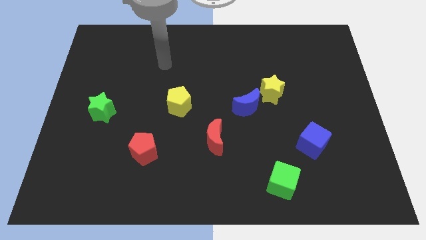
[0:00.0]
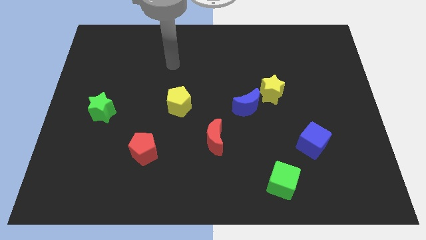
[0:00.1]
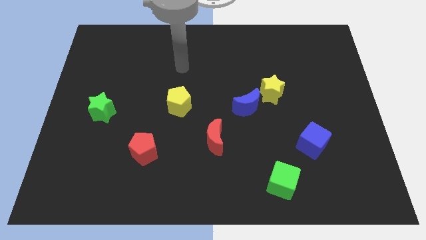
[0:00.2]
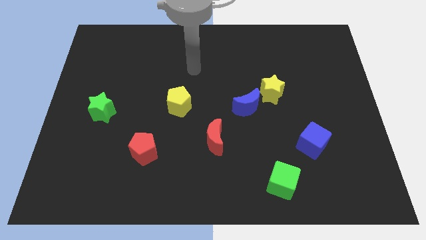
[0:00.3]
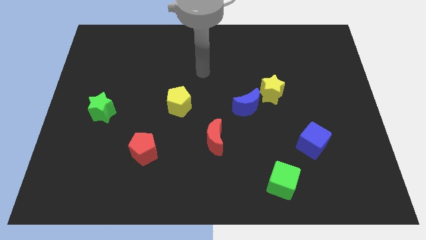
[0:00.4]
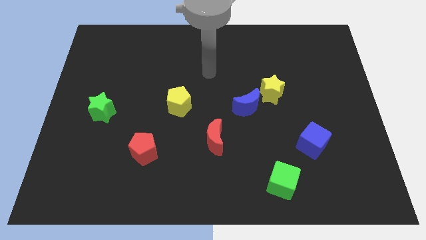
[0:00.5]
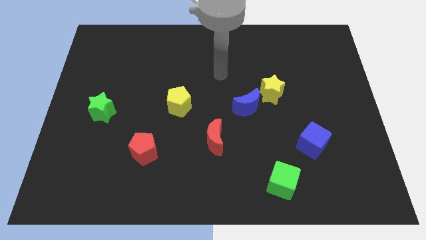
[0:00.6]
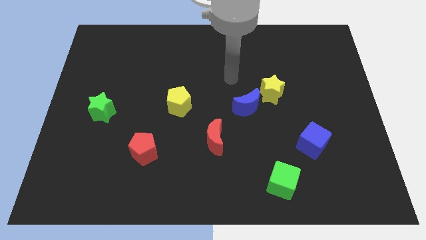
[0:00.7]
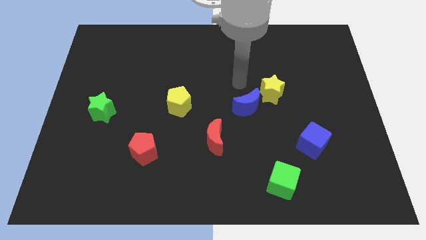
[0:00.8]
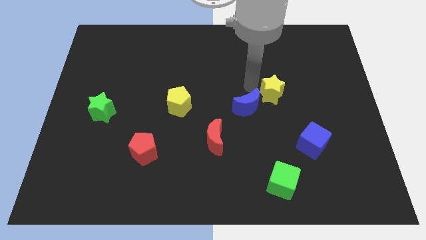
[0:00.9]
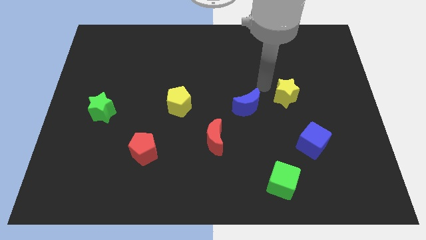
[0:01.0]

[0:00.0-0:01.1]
pull the blue moon apart from the yellow star

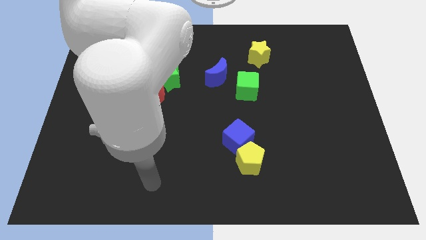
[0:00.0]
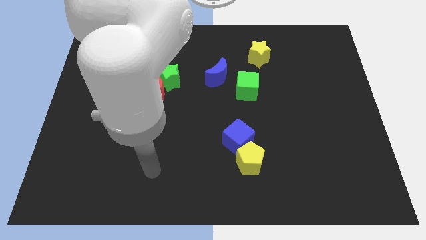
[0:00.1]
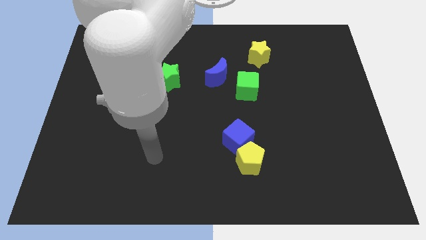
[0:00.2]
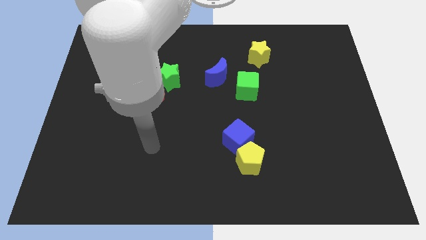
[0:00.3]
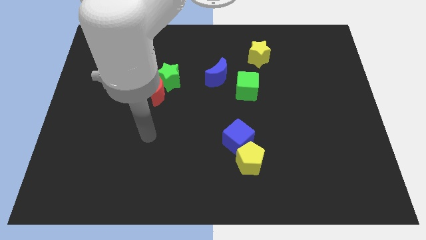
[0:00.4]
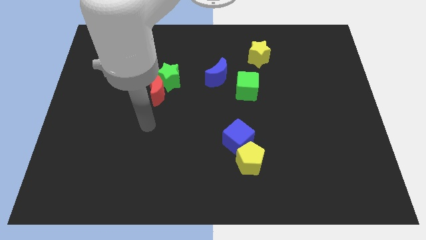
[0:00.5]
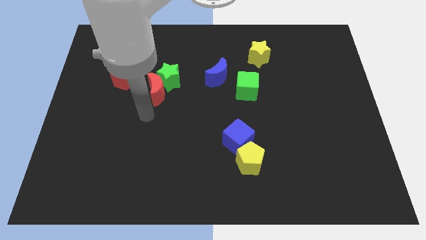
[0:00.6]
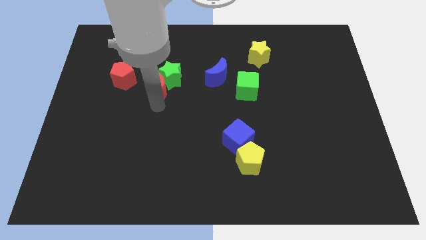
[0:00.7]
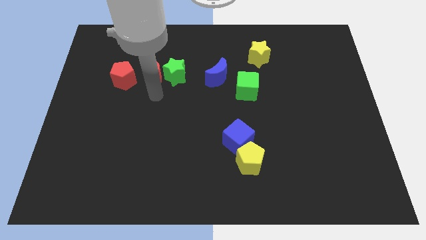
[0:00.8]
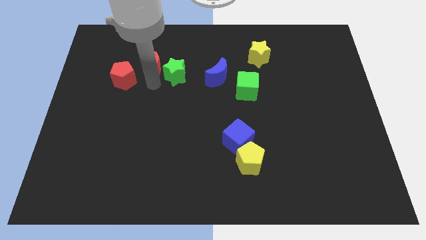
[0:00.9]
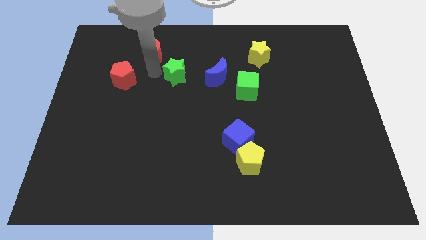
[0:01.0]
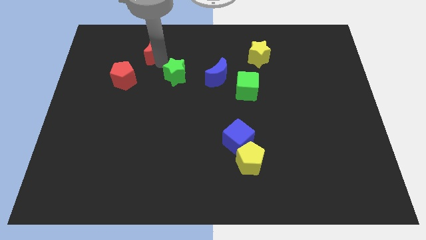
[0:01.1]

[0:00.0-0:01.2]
move the green star away from the red moon

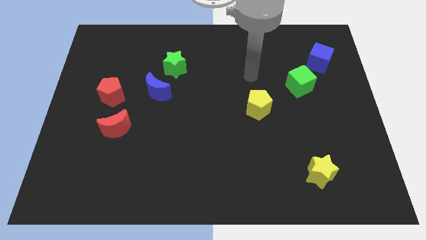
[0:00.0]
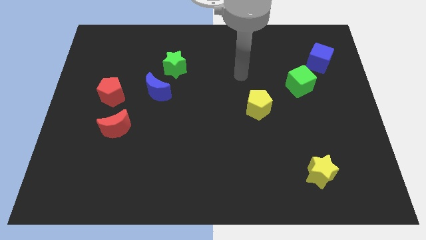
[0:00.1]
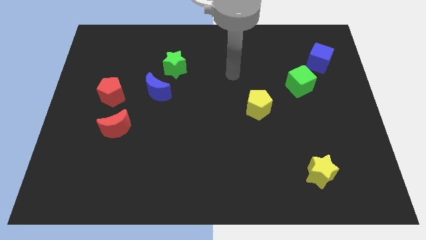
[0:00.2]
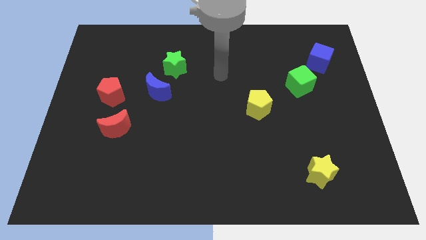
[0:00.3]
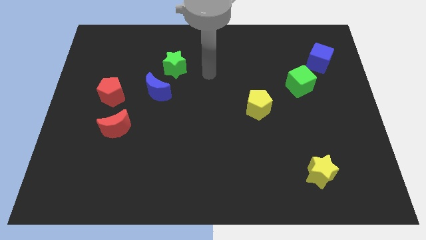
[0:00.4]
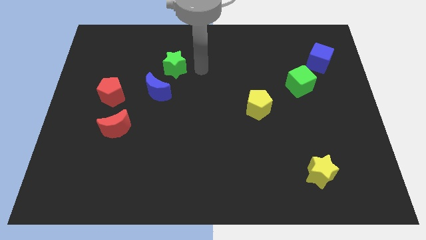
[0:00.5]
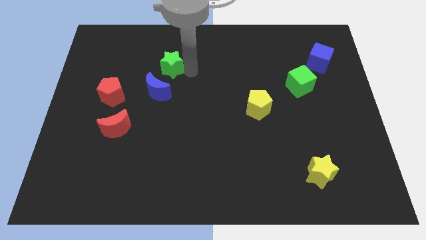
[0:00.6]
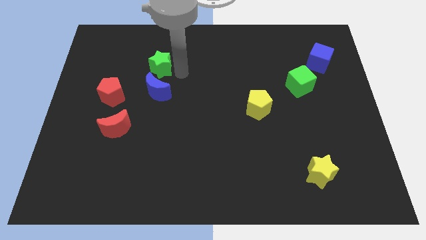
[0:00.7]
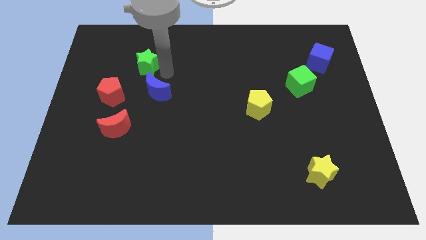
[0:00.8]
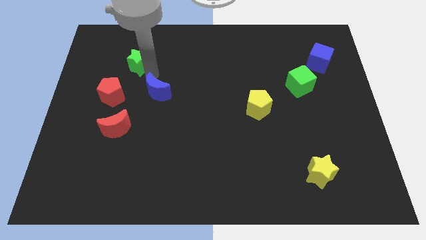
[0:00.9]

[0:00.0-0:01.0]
move the blue moon away from the green star

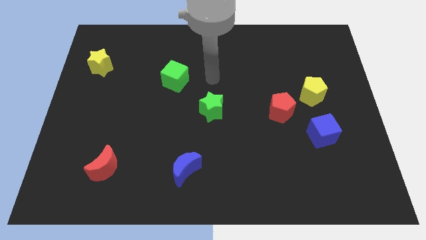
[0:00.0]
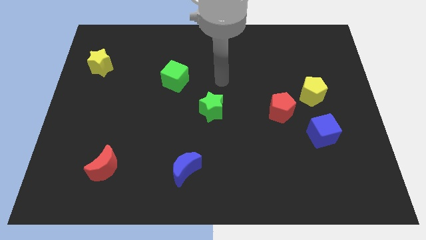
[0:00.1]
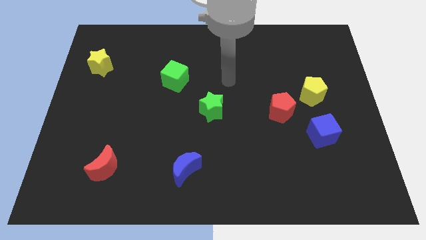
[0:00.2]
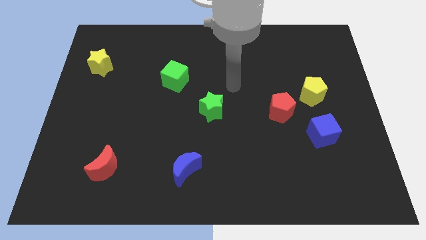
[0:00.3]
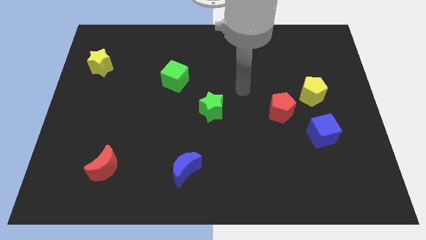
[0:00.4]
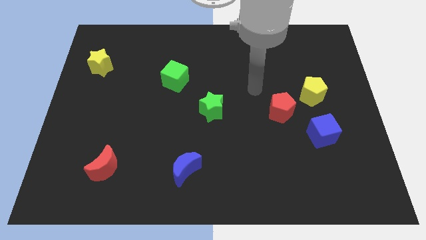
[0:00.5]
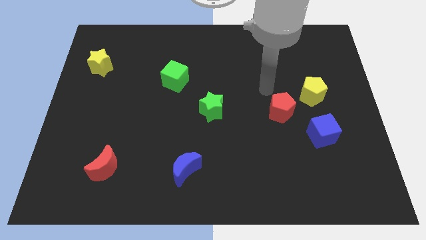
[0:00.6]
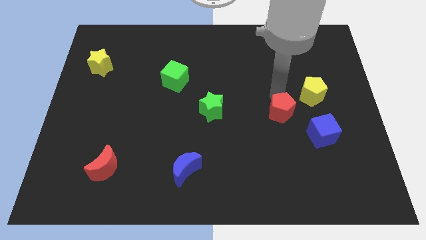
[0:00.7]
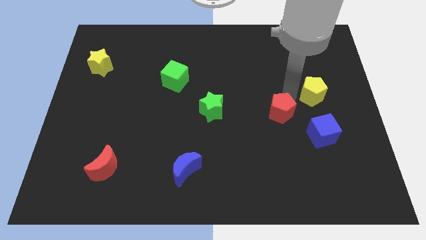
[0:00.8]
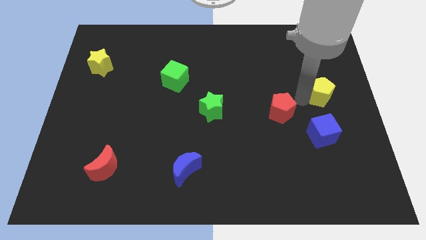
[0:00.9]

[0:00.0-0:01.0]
separate the red pentagon from the yellow pentagon

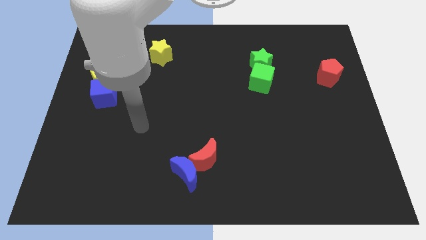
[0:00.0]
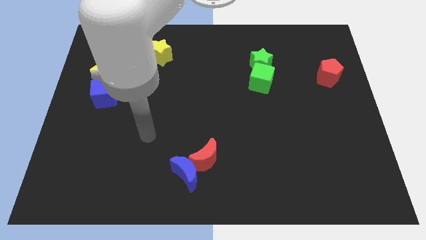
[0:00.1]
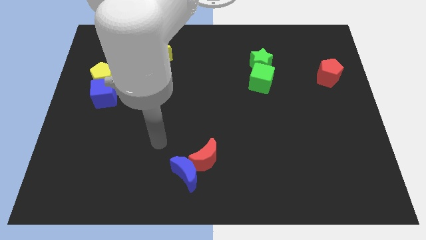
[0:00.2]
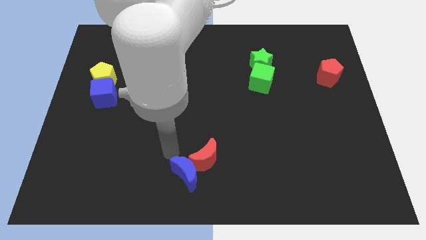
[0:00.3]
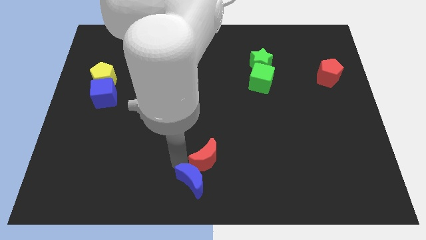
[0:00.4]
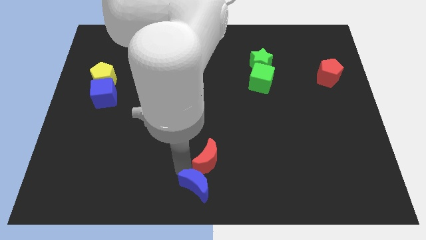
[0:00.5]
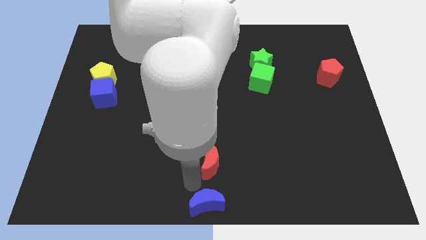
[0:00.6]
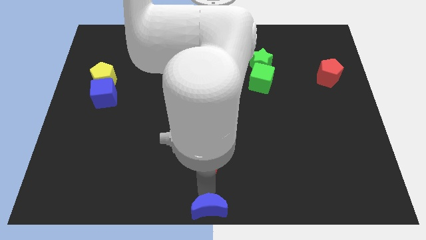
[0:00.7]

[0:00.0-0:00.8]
separate the red moon from the blue moon

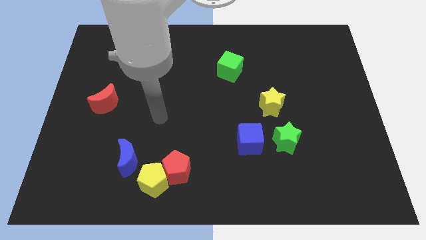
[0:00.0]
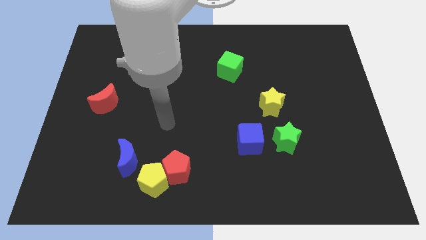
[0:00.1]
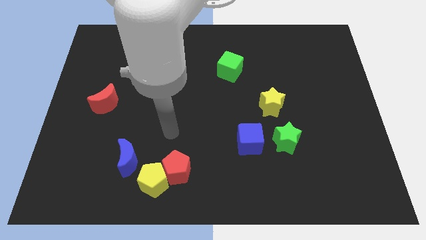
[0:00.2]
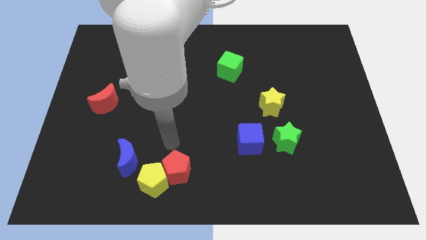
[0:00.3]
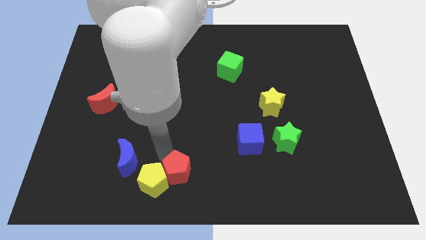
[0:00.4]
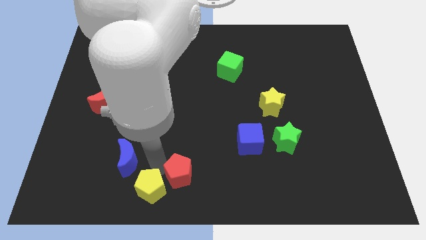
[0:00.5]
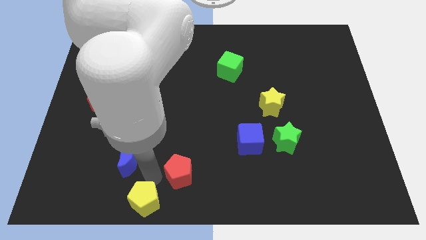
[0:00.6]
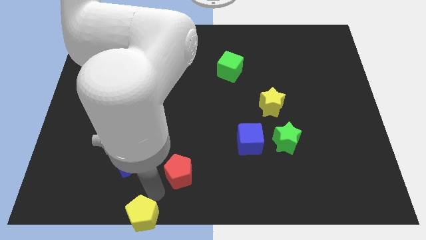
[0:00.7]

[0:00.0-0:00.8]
move the red pentagon away from the yellow pentagon

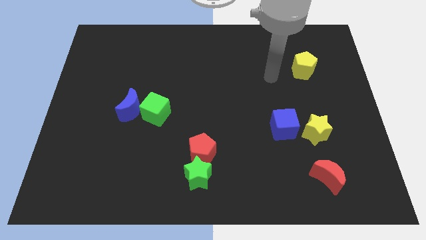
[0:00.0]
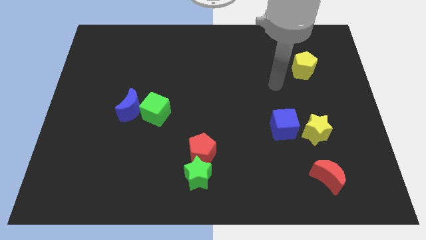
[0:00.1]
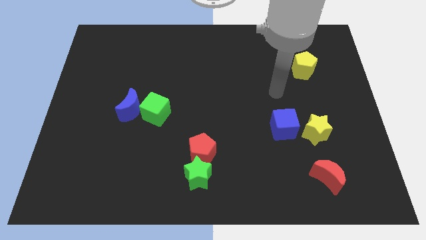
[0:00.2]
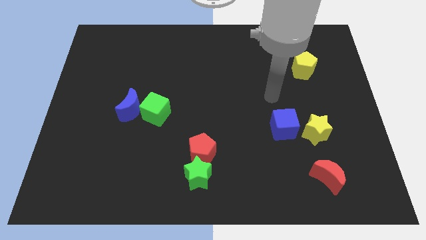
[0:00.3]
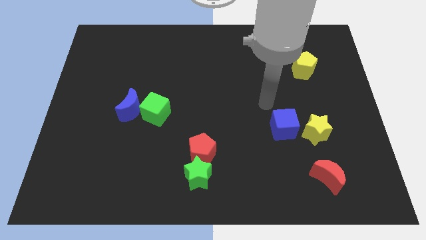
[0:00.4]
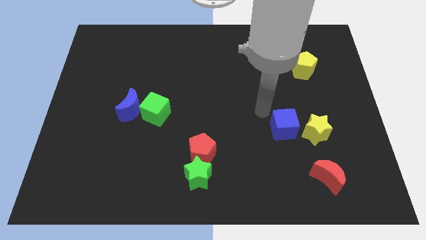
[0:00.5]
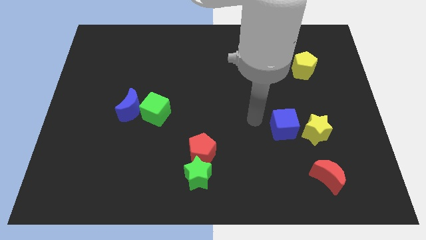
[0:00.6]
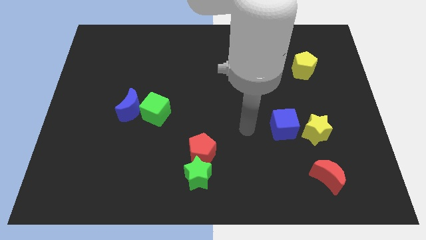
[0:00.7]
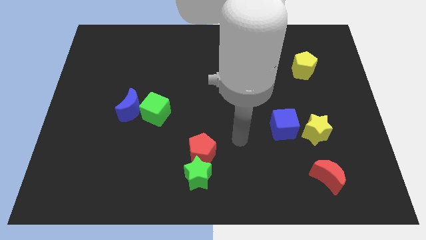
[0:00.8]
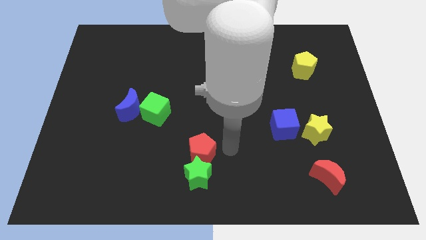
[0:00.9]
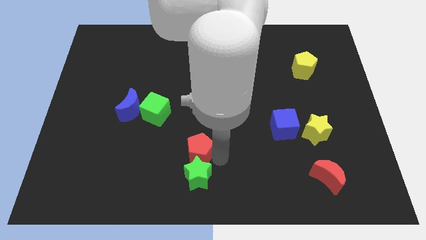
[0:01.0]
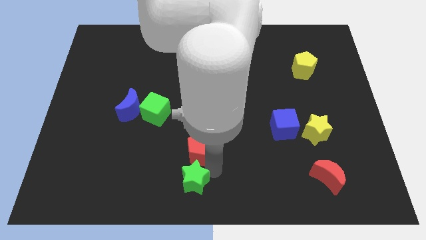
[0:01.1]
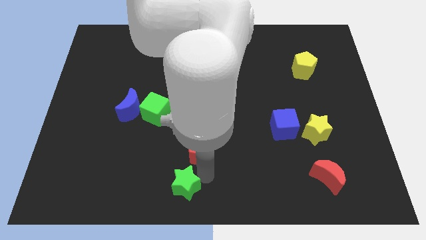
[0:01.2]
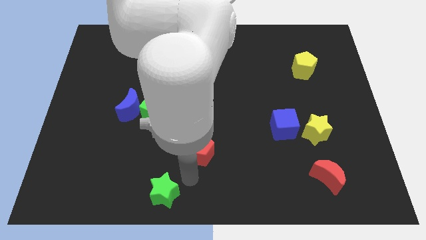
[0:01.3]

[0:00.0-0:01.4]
pull the red pentagon apart from the green star

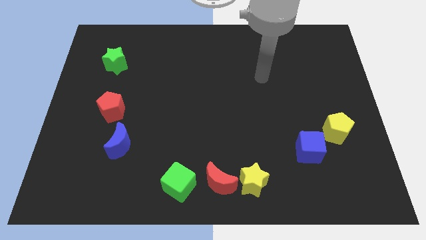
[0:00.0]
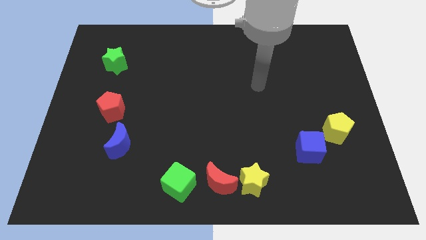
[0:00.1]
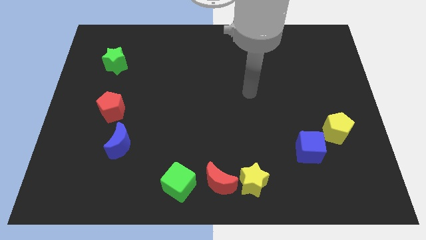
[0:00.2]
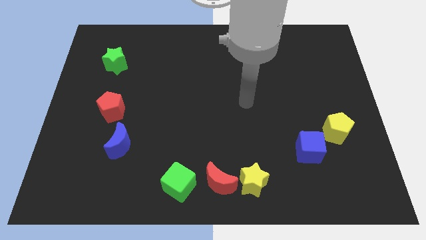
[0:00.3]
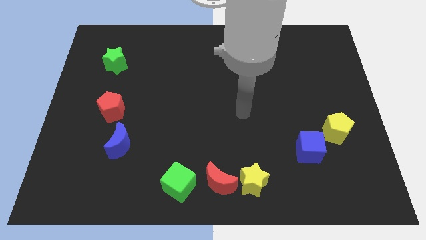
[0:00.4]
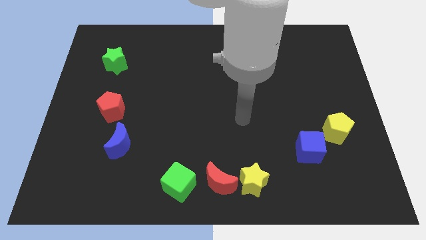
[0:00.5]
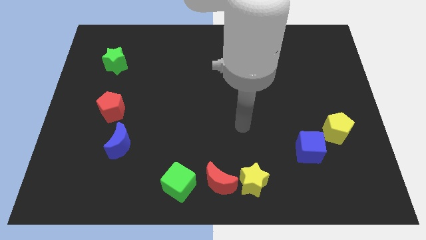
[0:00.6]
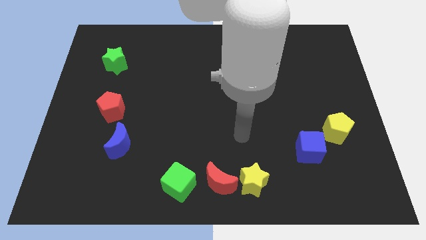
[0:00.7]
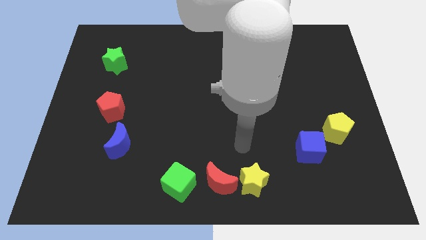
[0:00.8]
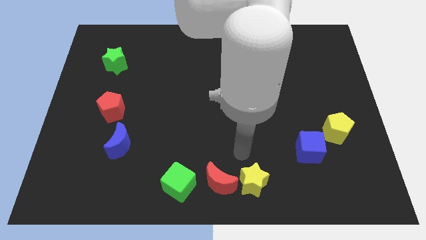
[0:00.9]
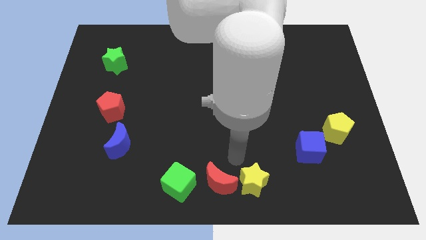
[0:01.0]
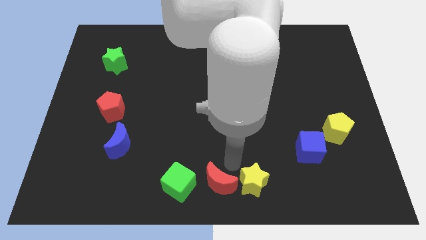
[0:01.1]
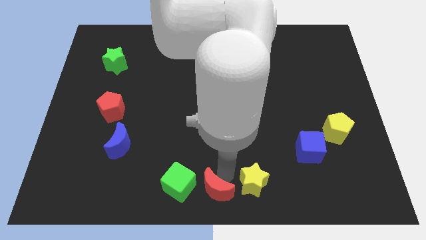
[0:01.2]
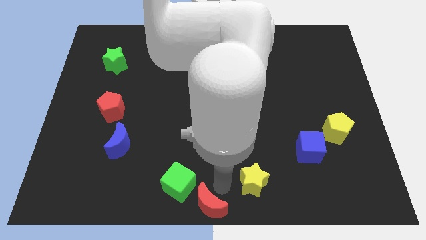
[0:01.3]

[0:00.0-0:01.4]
pull the yellow star apart from the red moon

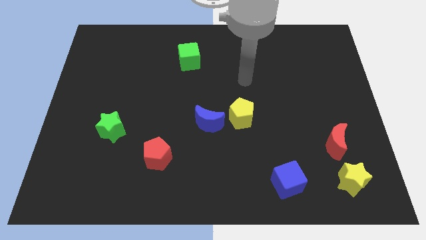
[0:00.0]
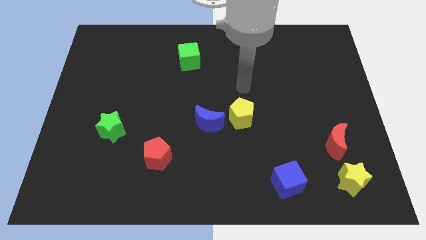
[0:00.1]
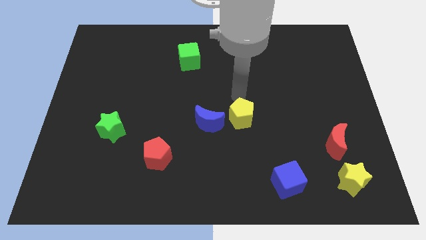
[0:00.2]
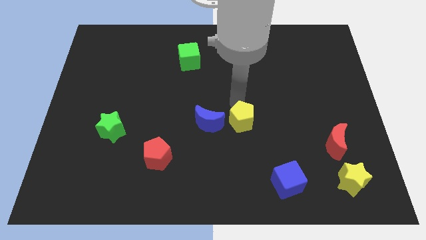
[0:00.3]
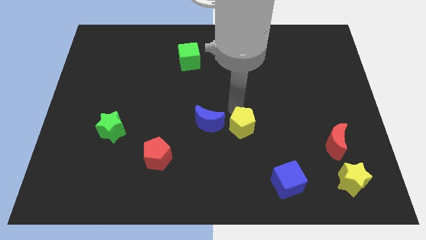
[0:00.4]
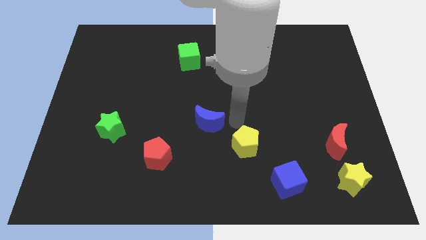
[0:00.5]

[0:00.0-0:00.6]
separate the blue moon from the yellow pentagon
